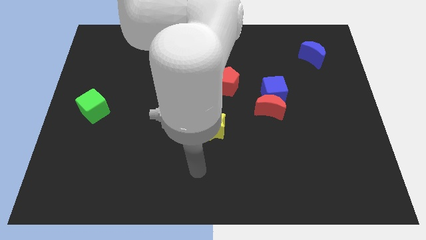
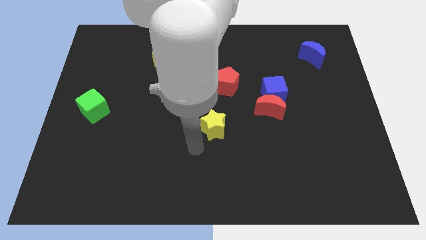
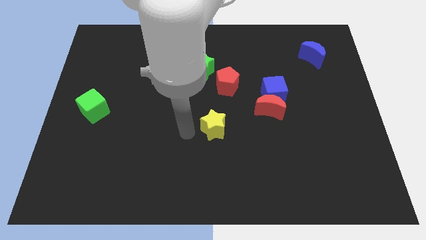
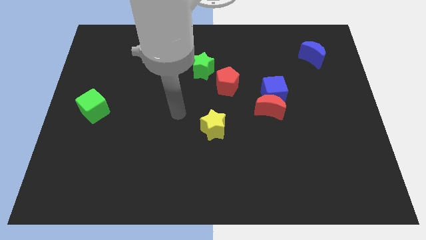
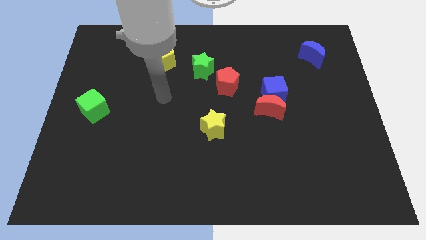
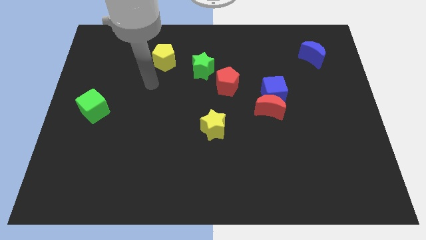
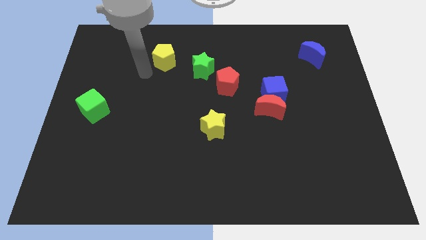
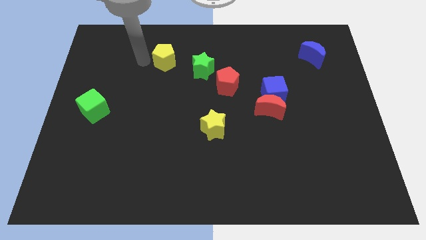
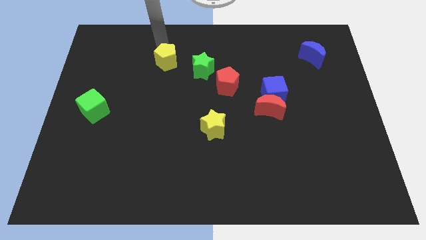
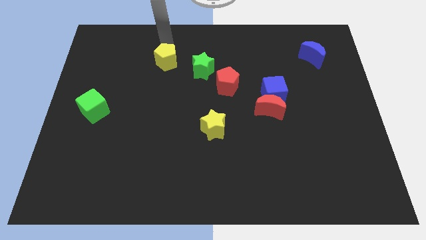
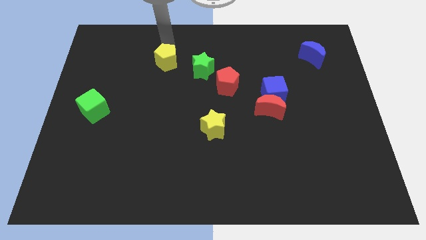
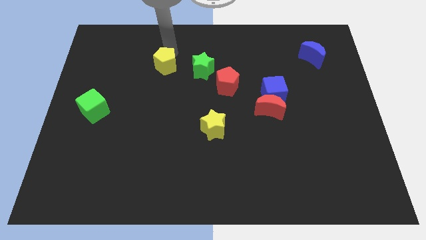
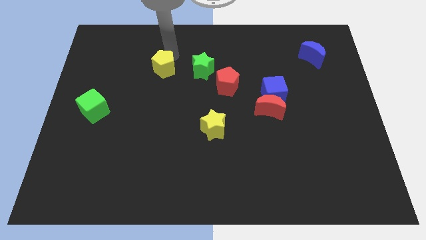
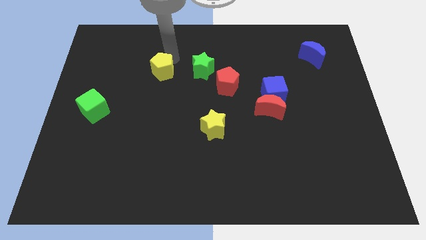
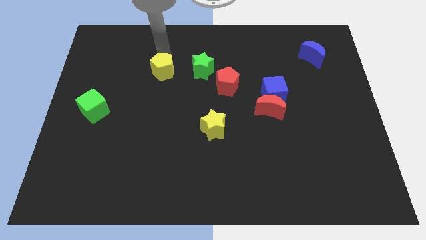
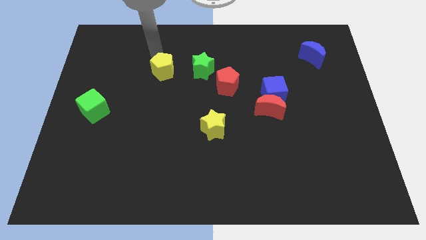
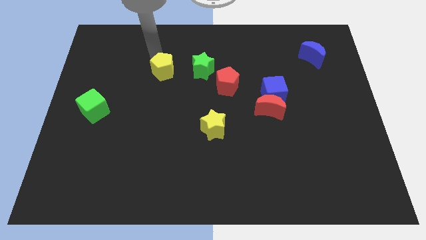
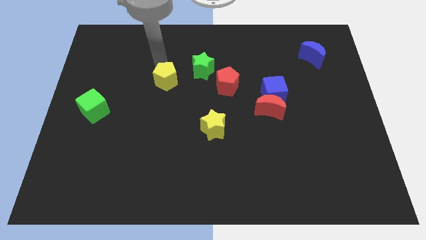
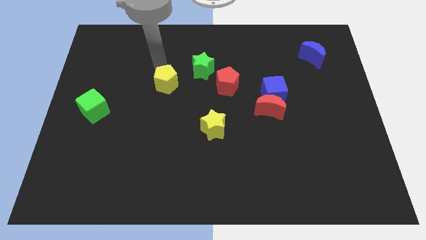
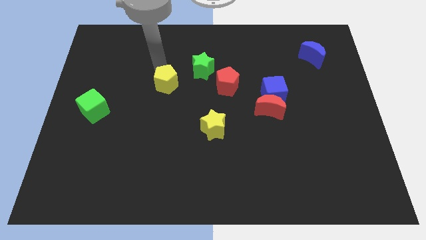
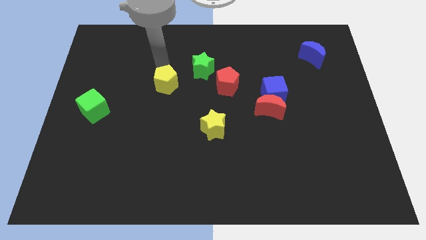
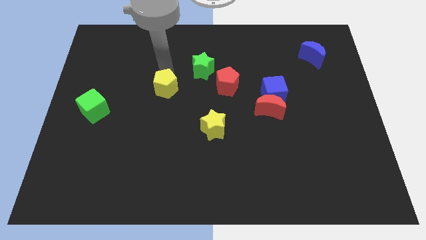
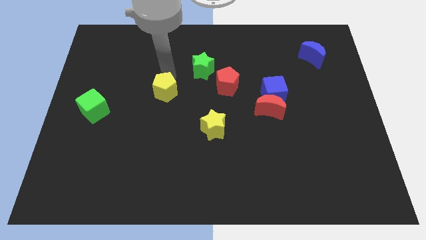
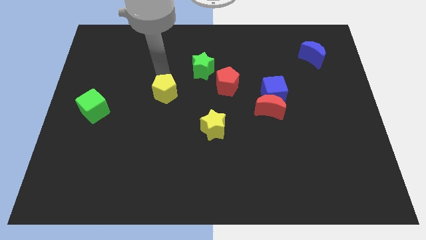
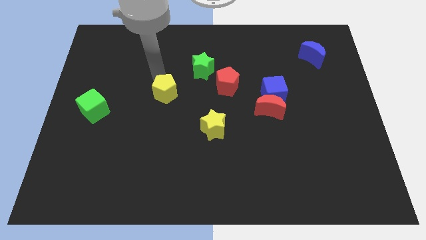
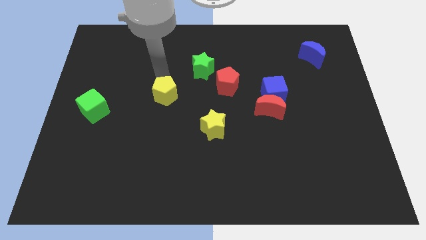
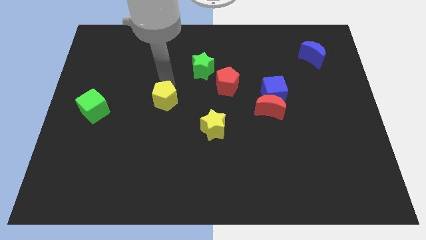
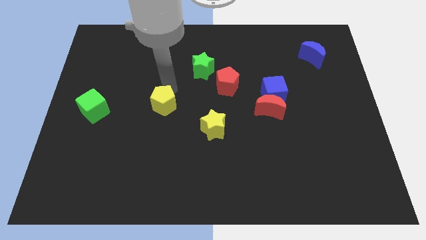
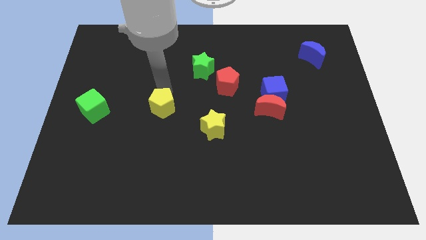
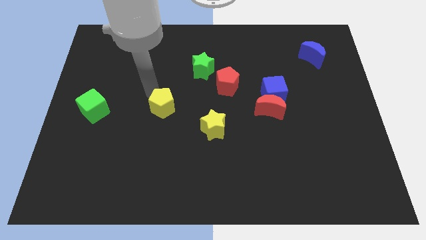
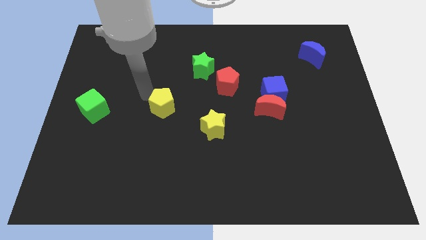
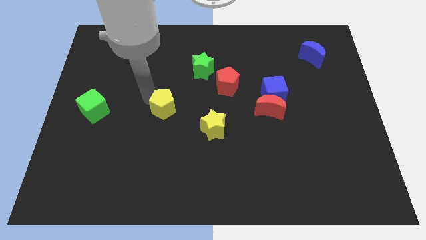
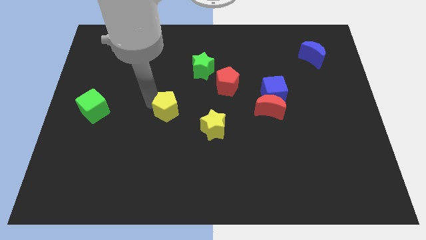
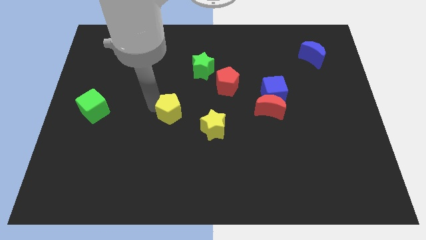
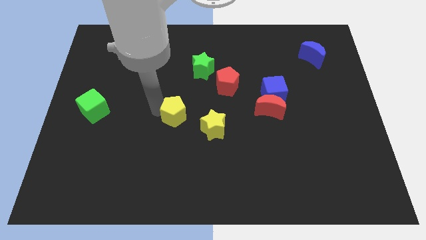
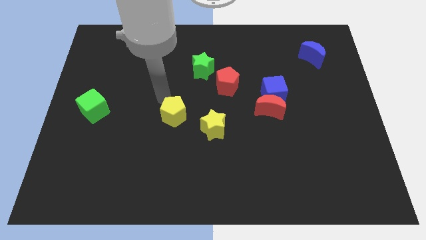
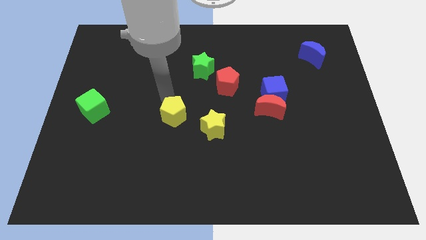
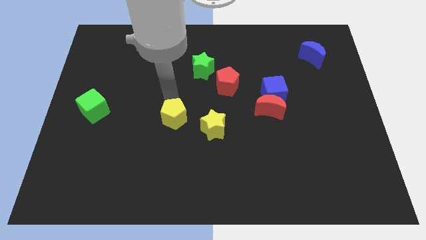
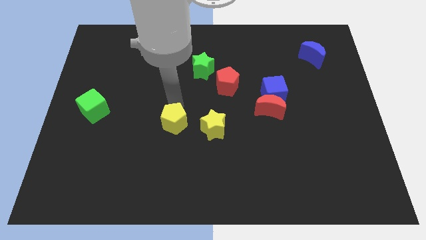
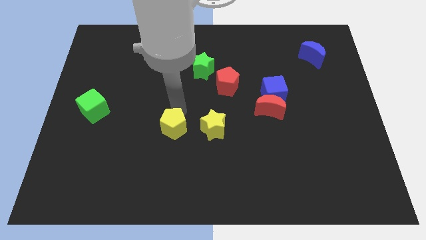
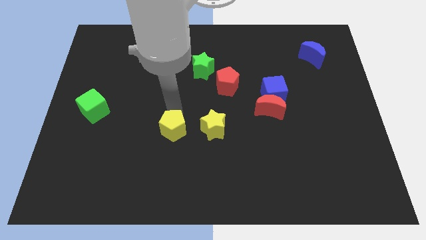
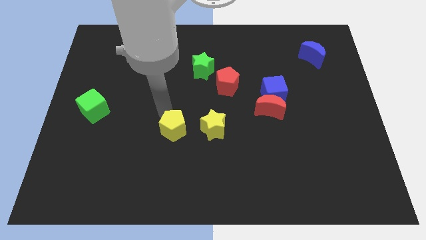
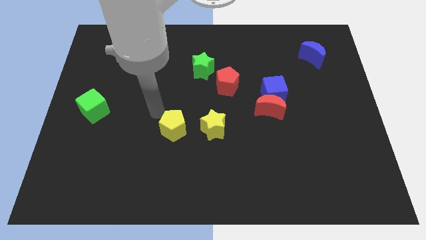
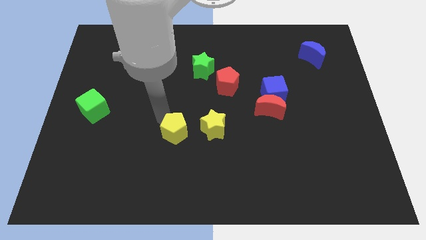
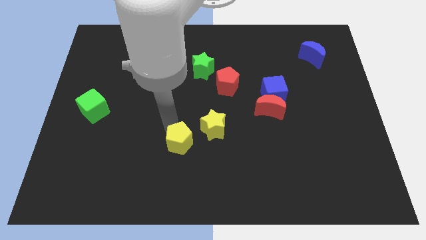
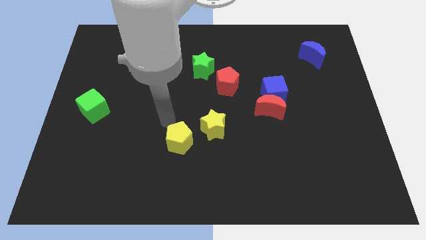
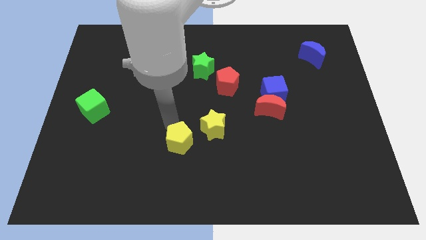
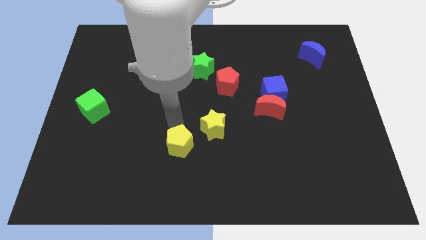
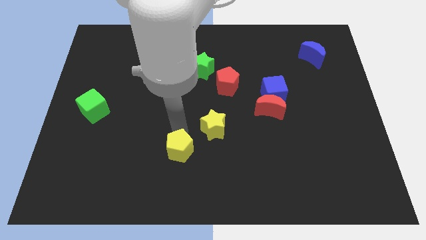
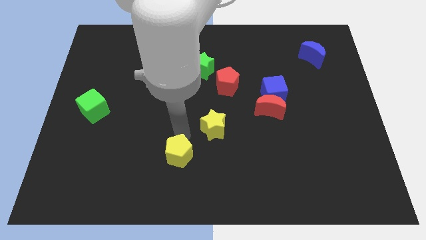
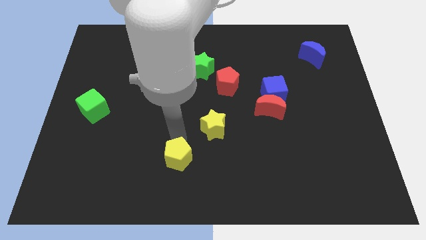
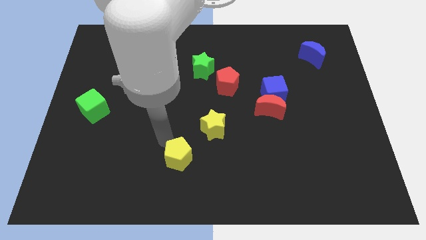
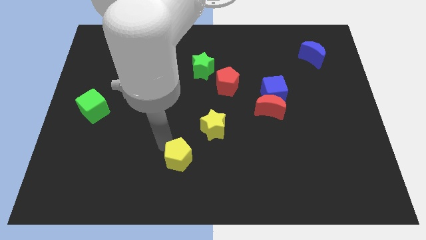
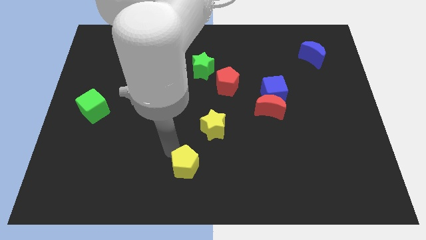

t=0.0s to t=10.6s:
move the yellow pentagon to the bottom side

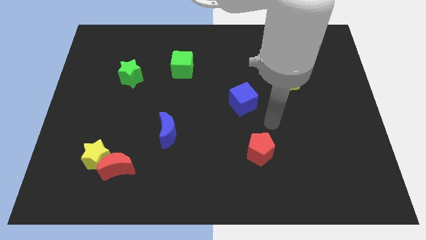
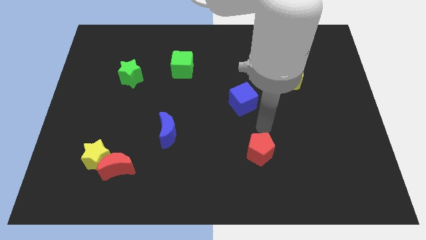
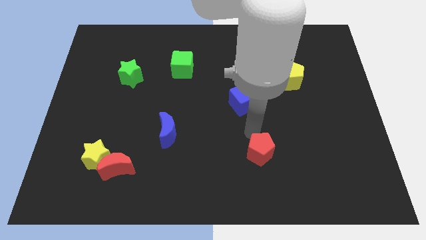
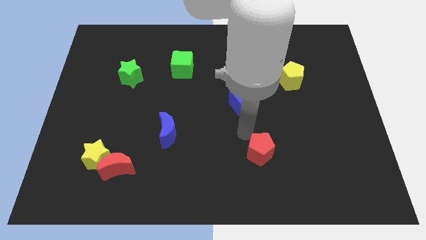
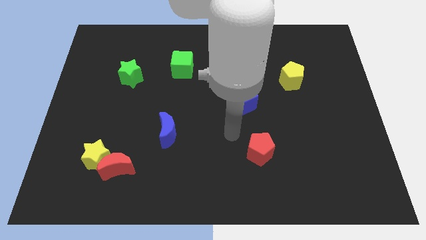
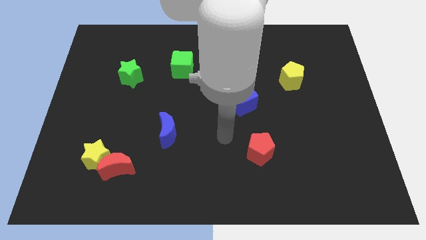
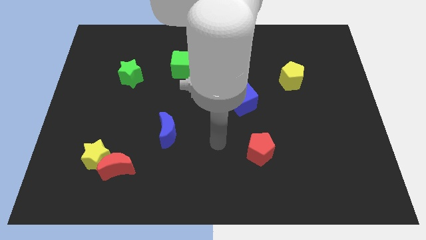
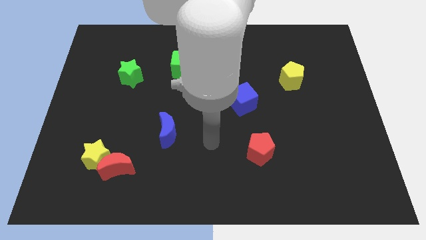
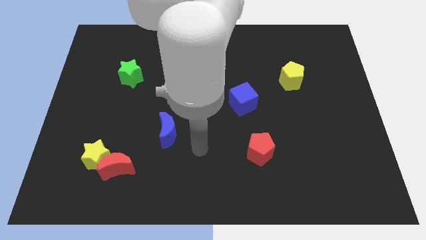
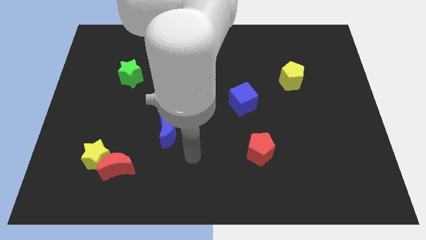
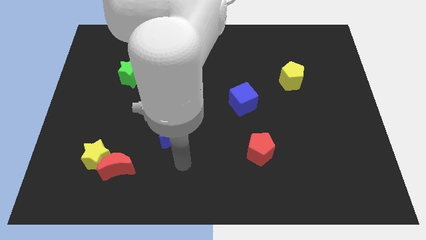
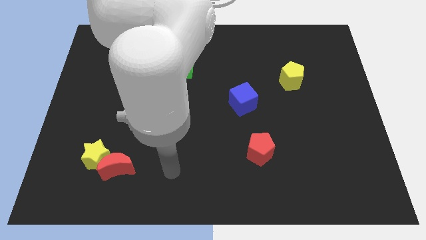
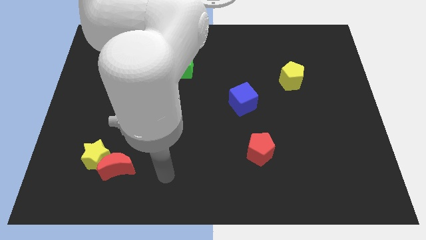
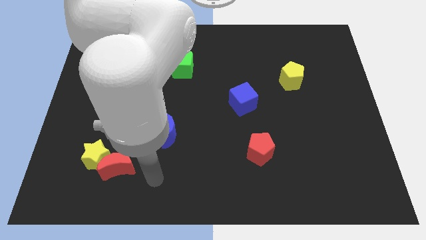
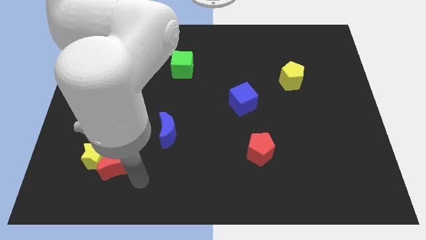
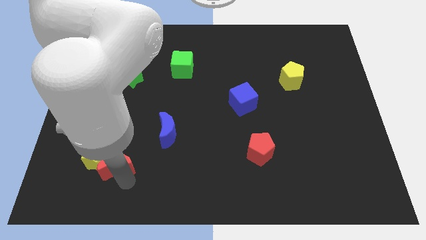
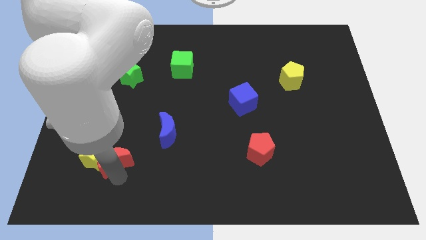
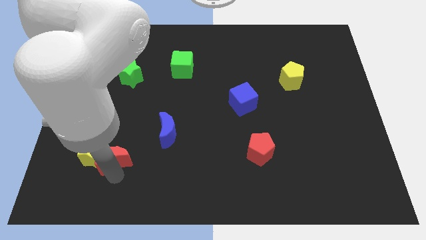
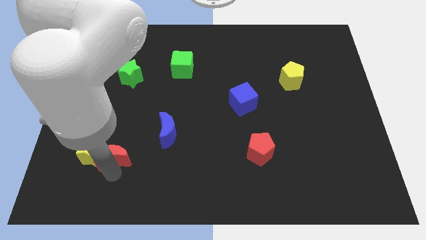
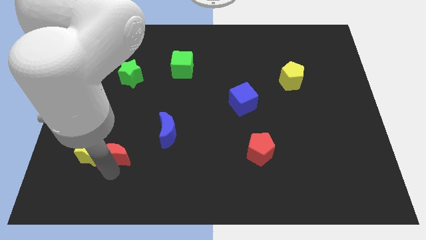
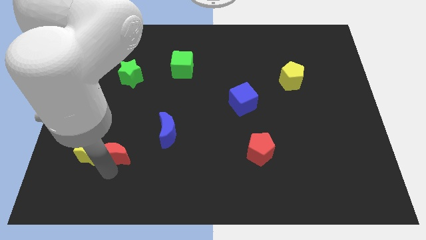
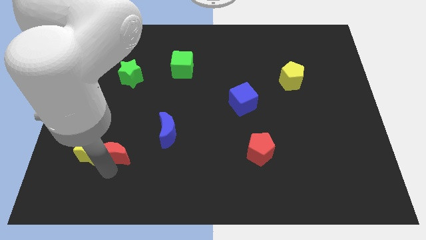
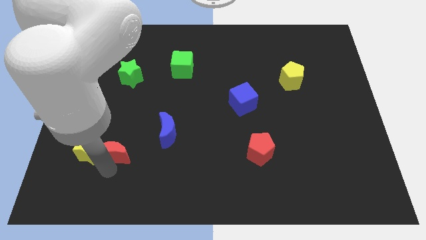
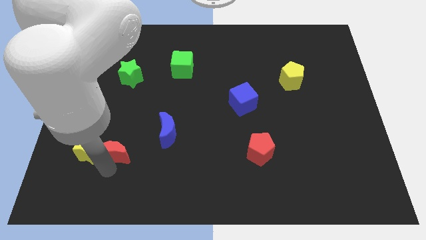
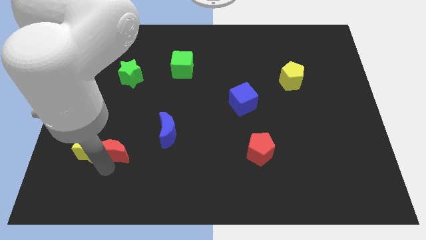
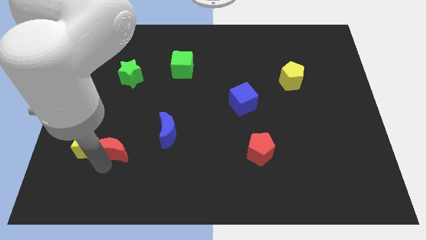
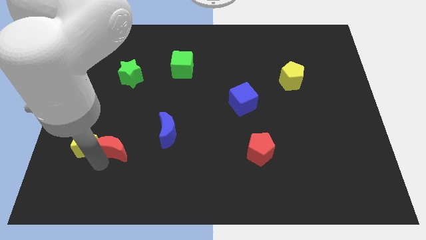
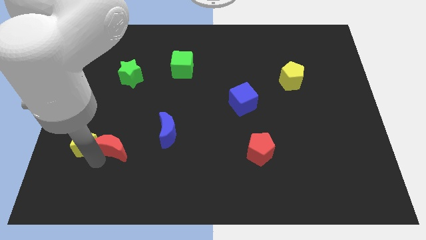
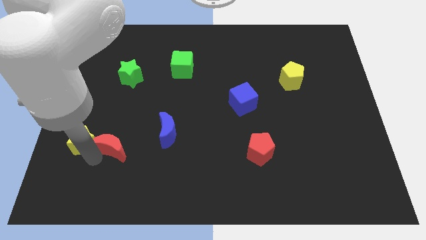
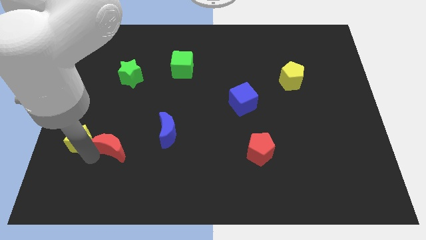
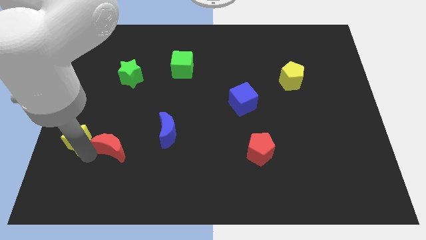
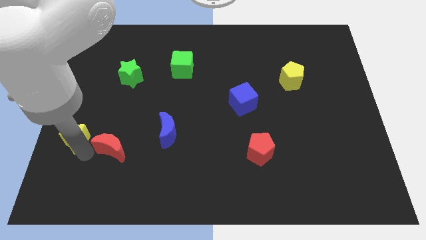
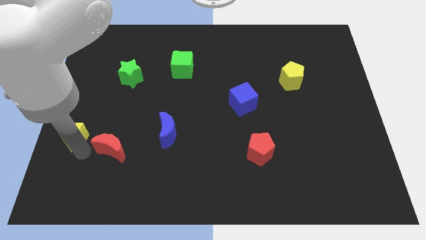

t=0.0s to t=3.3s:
slide the yellow star to the center left
